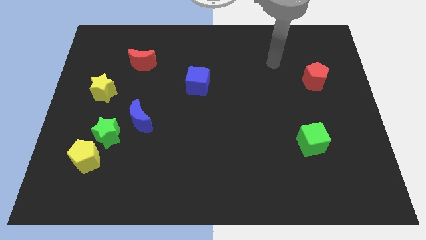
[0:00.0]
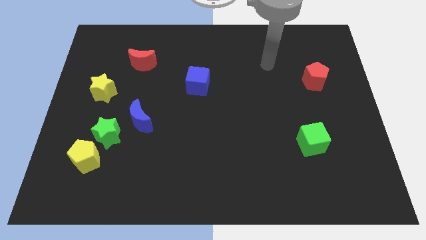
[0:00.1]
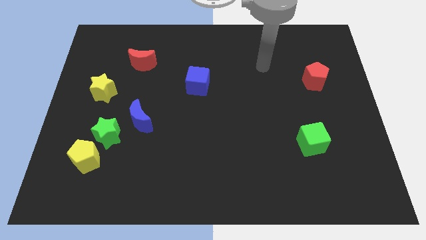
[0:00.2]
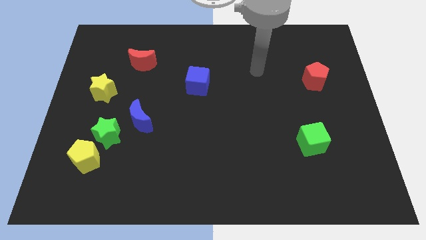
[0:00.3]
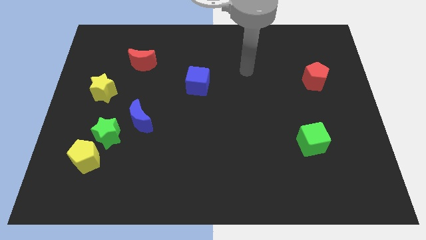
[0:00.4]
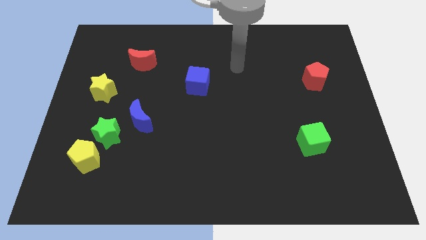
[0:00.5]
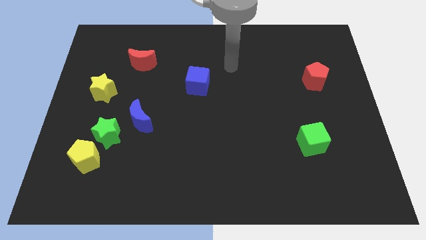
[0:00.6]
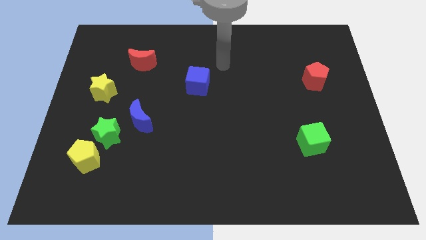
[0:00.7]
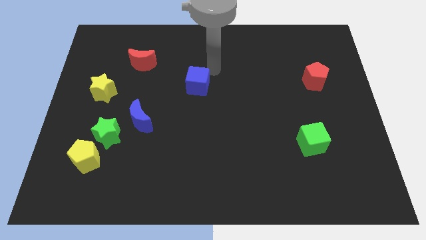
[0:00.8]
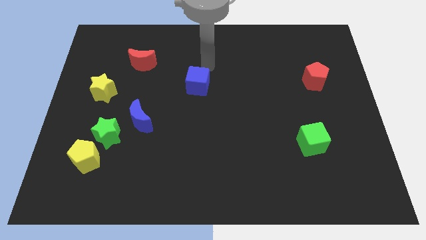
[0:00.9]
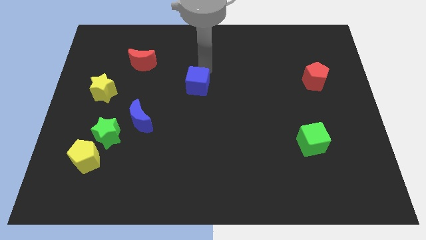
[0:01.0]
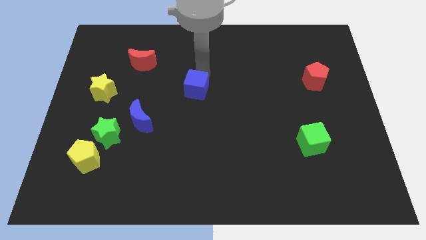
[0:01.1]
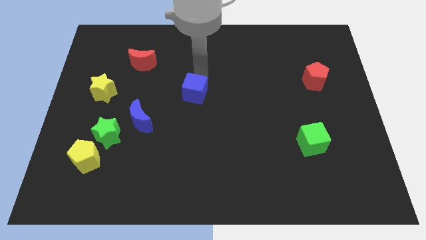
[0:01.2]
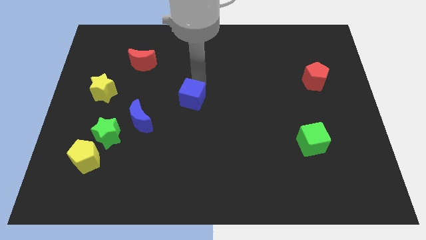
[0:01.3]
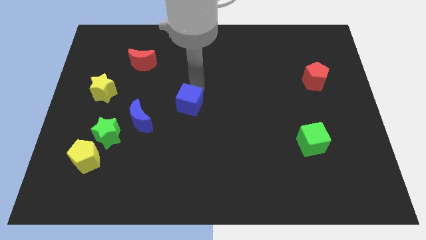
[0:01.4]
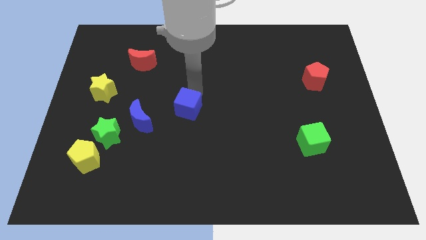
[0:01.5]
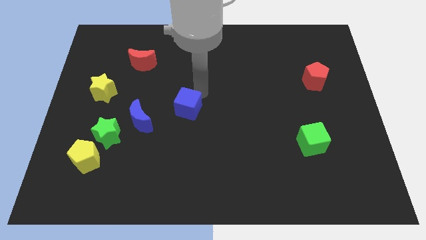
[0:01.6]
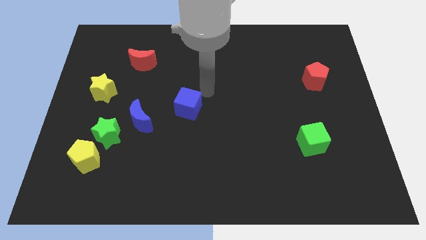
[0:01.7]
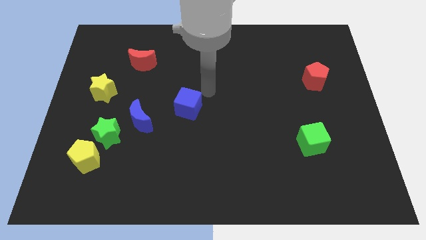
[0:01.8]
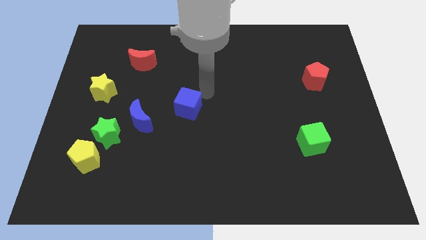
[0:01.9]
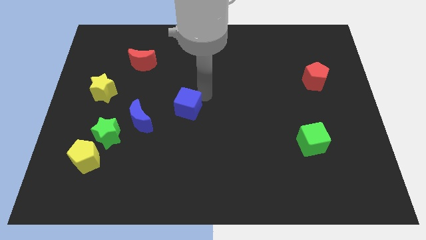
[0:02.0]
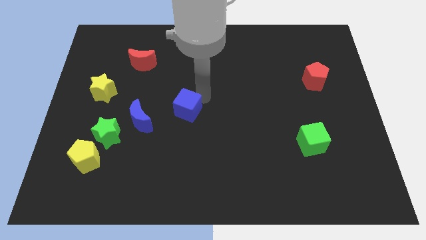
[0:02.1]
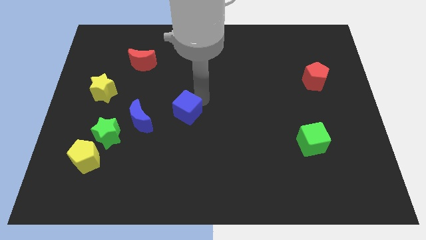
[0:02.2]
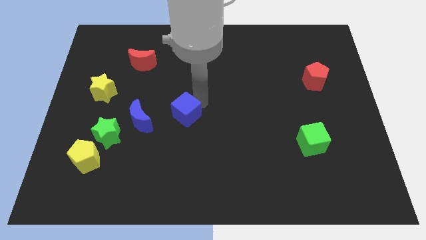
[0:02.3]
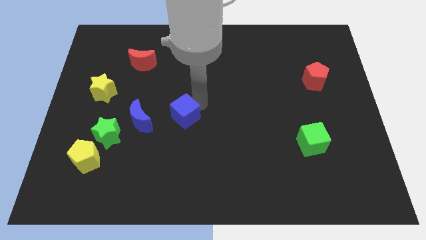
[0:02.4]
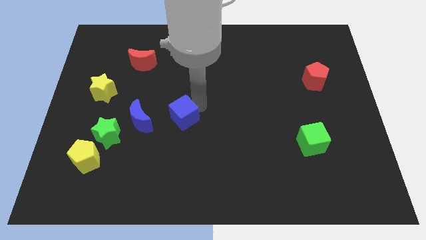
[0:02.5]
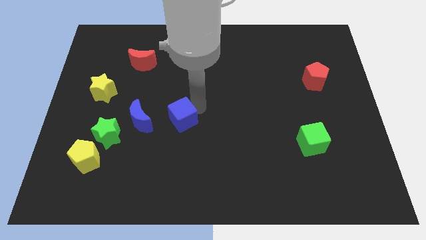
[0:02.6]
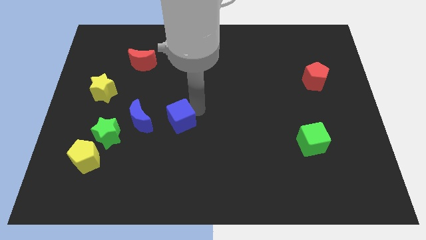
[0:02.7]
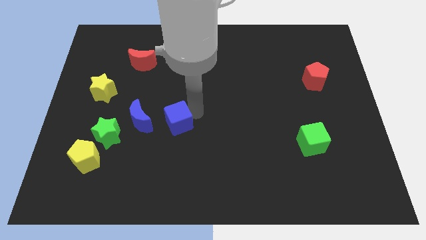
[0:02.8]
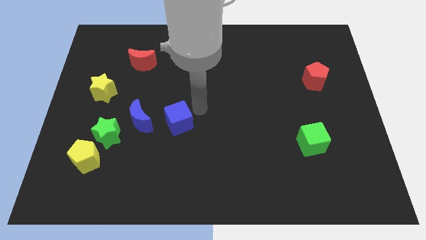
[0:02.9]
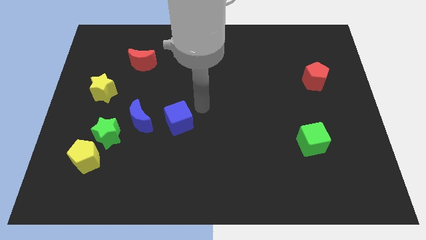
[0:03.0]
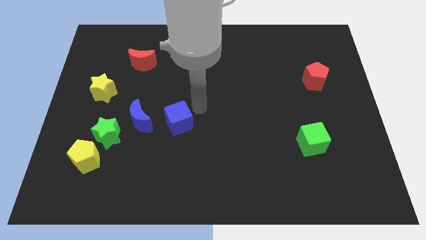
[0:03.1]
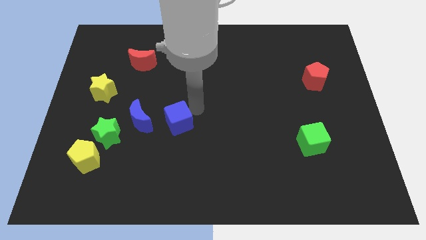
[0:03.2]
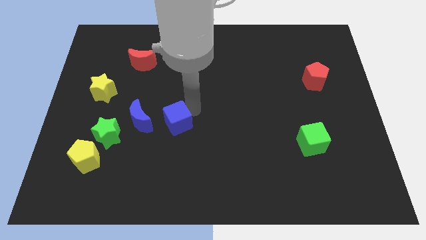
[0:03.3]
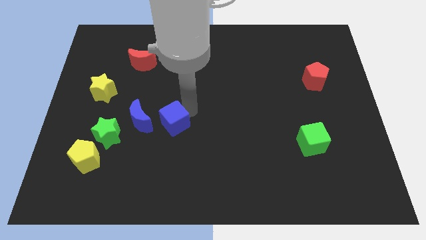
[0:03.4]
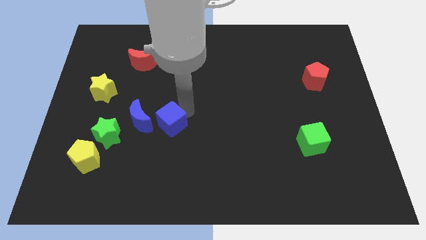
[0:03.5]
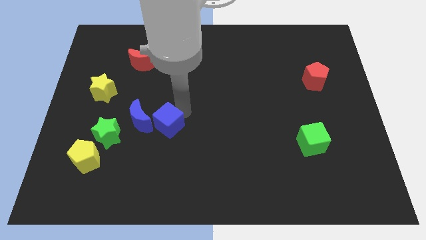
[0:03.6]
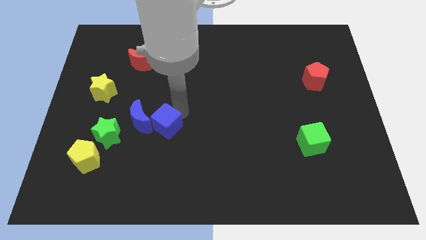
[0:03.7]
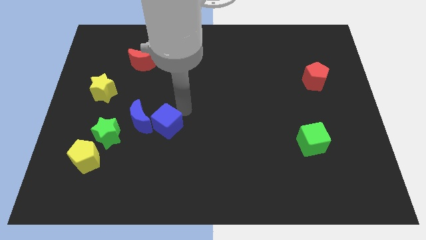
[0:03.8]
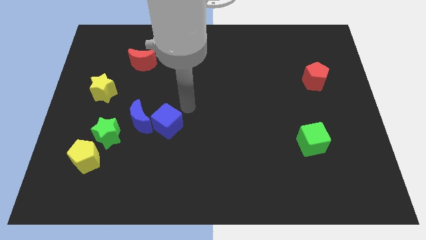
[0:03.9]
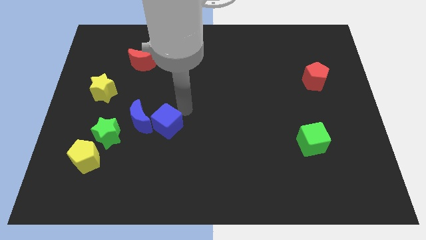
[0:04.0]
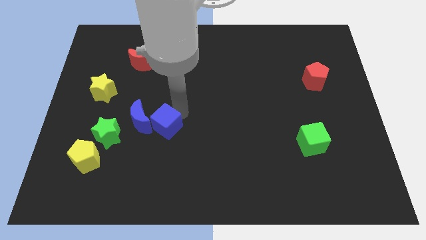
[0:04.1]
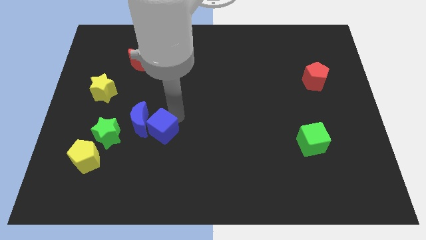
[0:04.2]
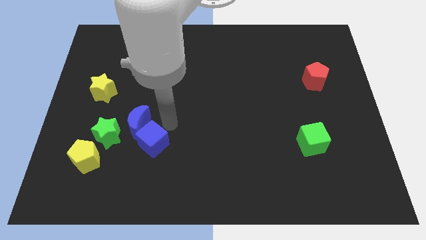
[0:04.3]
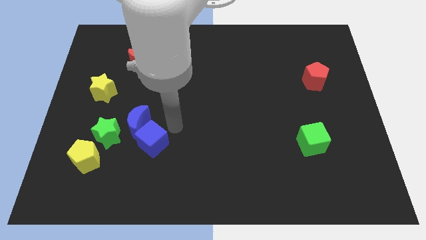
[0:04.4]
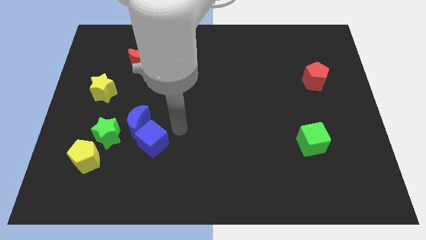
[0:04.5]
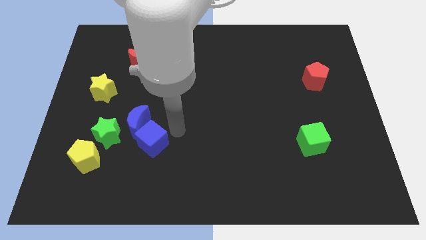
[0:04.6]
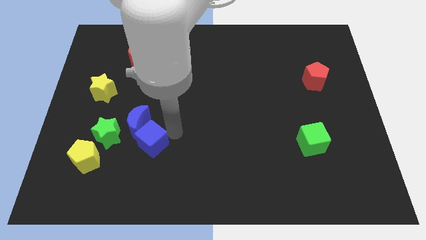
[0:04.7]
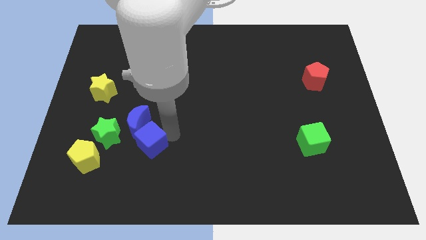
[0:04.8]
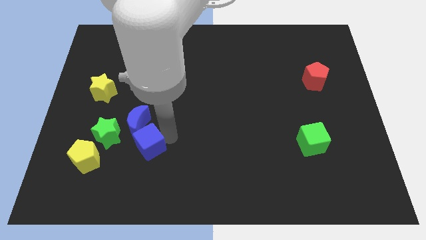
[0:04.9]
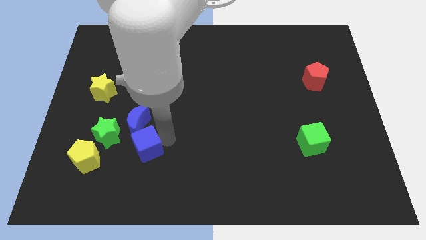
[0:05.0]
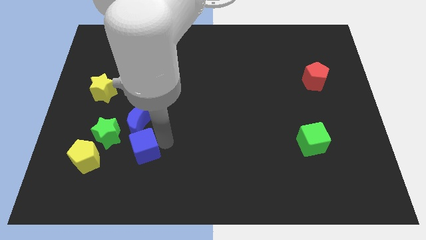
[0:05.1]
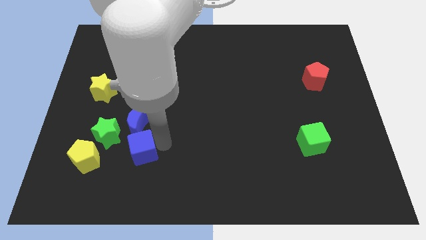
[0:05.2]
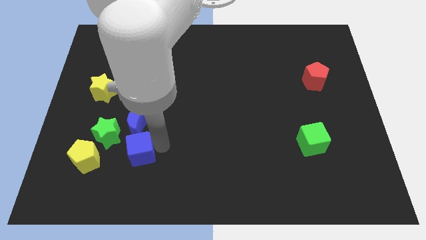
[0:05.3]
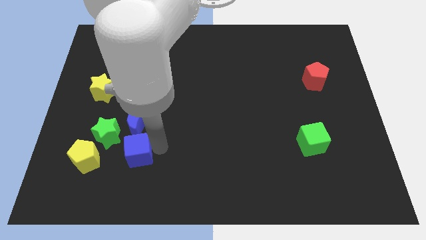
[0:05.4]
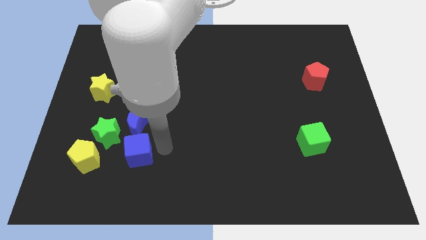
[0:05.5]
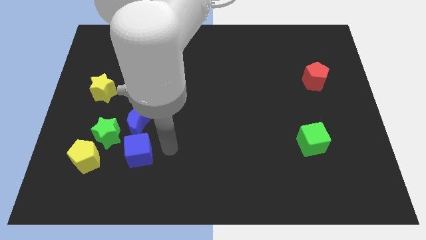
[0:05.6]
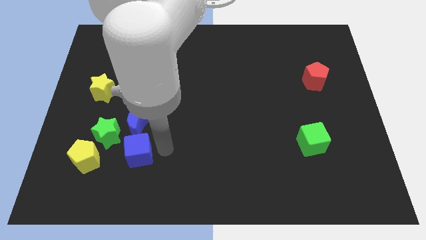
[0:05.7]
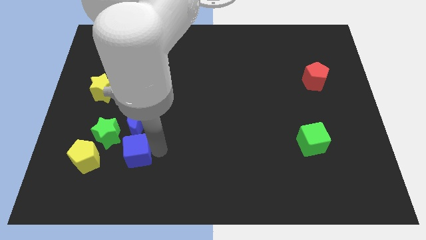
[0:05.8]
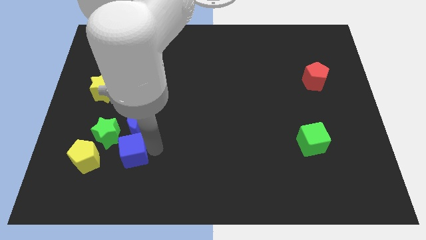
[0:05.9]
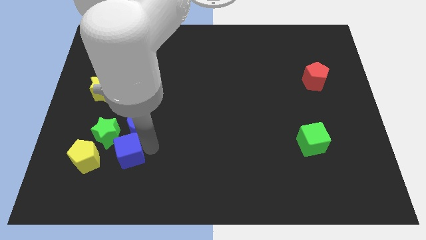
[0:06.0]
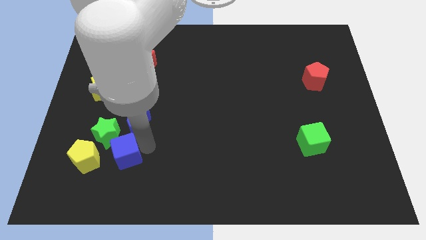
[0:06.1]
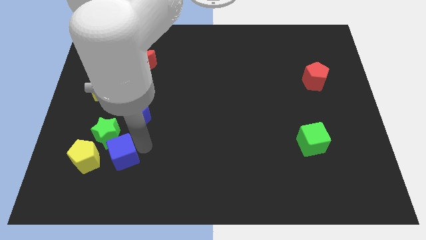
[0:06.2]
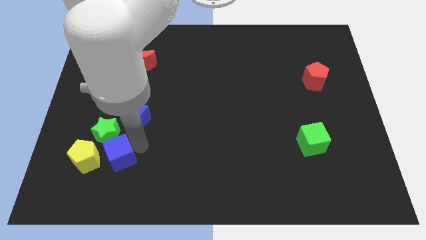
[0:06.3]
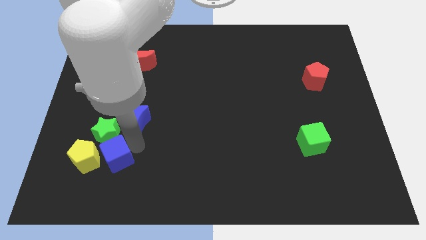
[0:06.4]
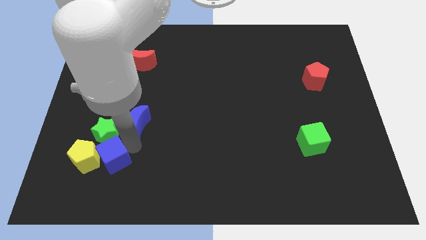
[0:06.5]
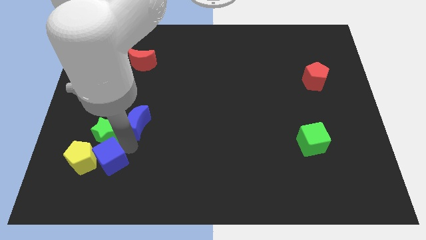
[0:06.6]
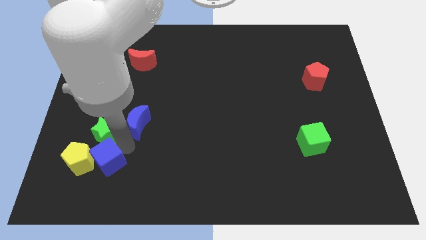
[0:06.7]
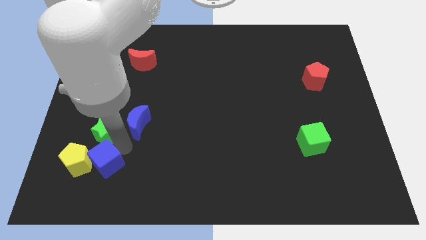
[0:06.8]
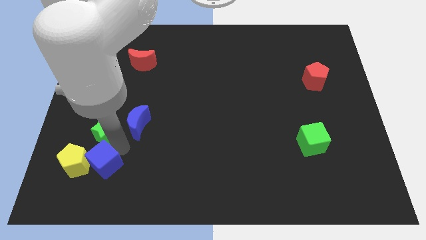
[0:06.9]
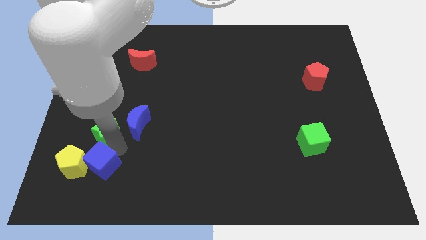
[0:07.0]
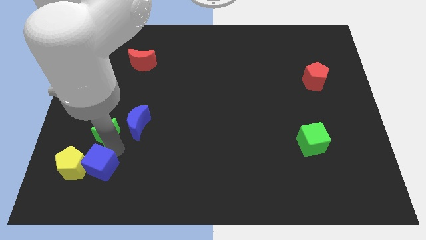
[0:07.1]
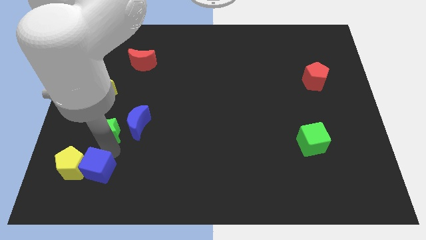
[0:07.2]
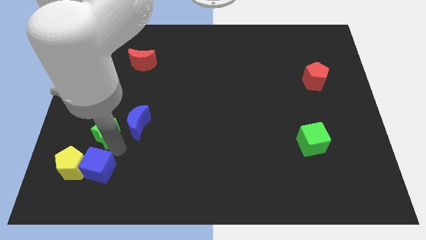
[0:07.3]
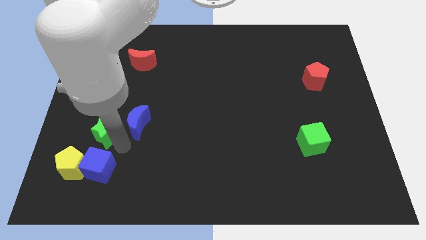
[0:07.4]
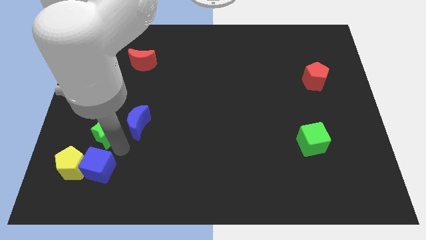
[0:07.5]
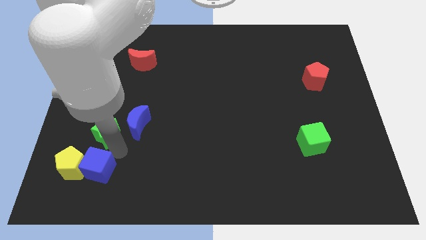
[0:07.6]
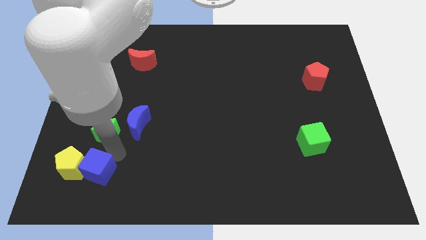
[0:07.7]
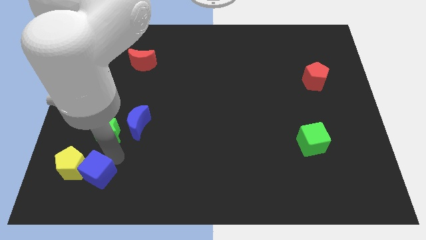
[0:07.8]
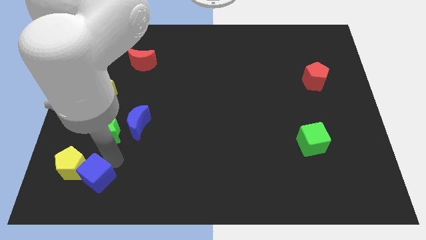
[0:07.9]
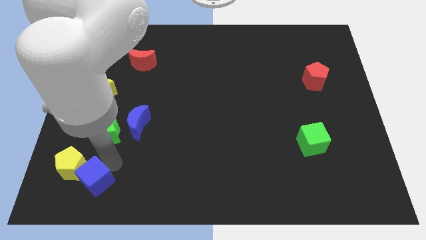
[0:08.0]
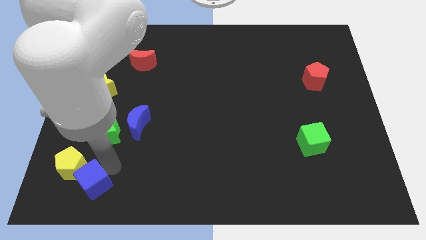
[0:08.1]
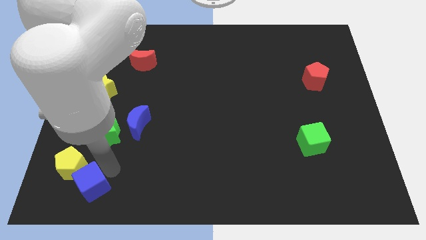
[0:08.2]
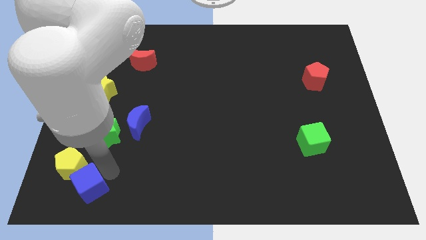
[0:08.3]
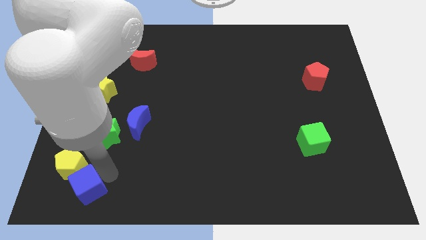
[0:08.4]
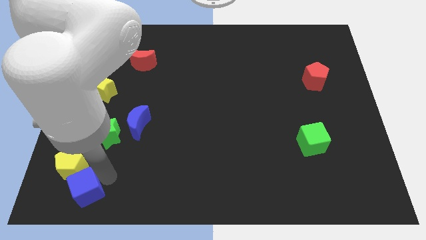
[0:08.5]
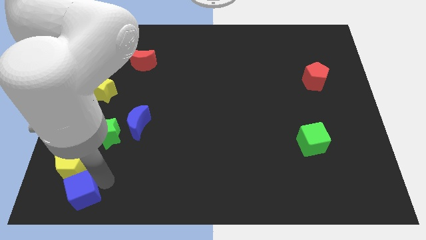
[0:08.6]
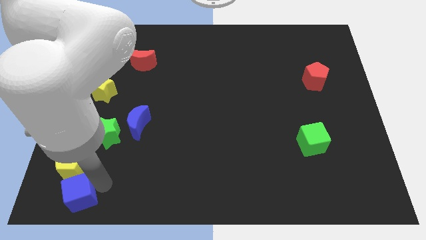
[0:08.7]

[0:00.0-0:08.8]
push the blue cube to the bottom left corner
